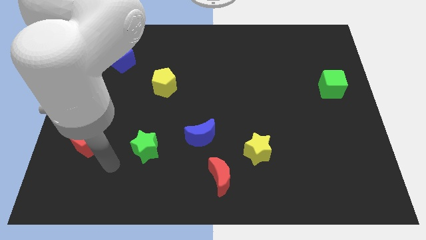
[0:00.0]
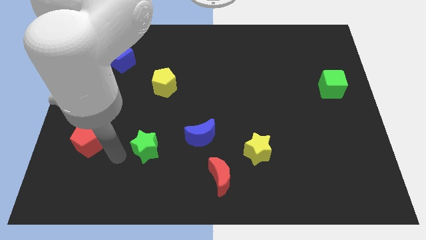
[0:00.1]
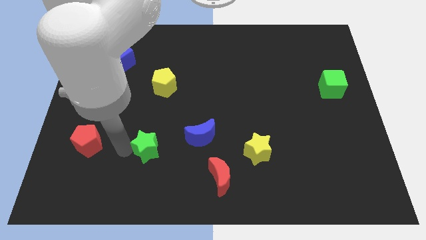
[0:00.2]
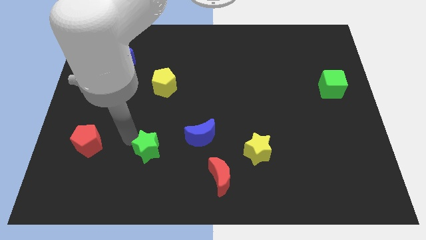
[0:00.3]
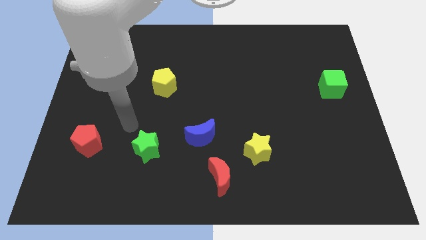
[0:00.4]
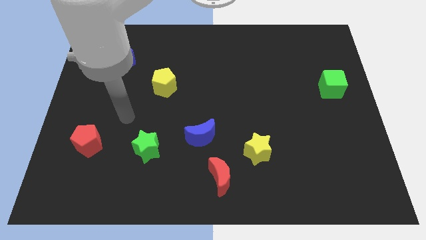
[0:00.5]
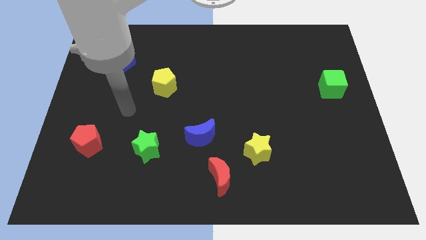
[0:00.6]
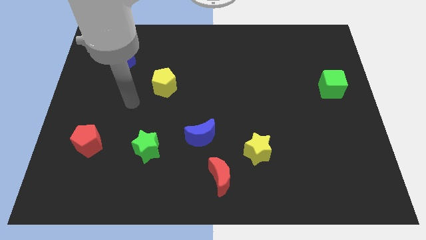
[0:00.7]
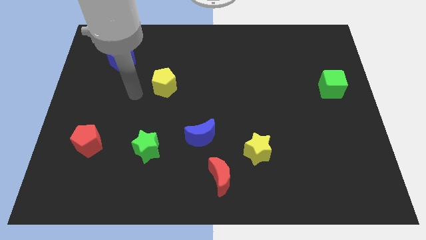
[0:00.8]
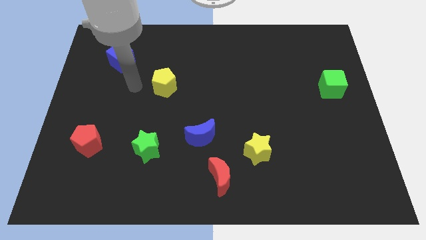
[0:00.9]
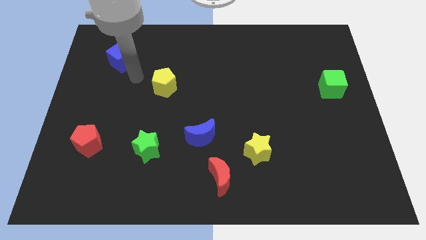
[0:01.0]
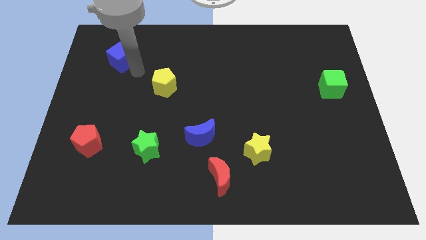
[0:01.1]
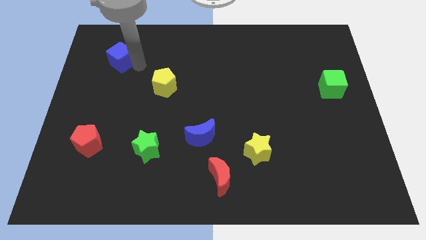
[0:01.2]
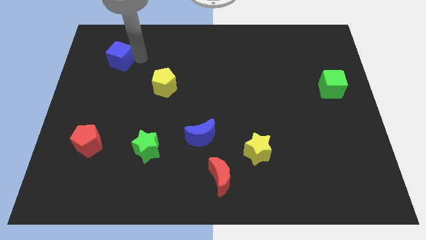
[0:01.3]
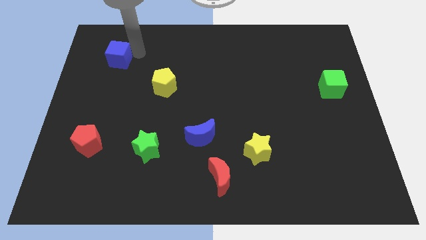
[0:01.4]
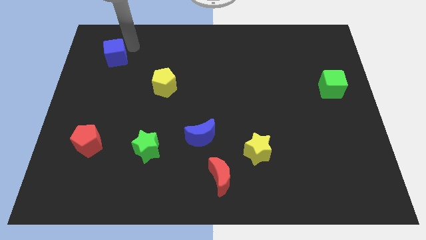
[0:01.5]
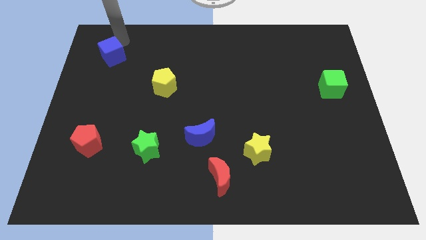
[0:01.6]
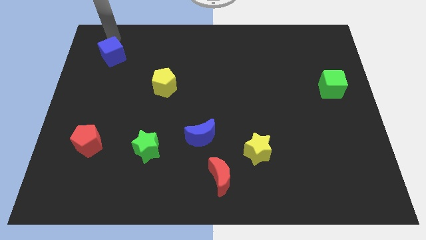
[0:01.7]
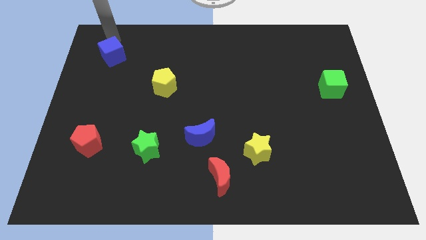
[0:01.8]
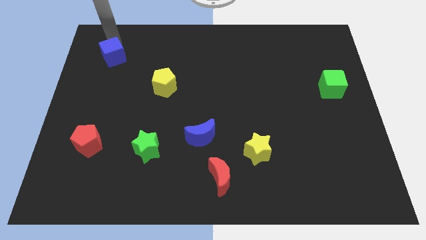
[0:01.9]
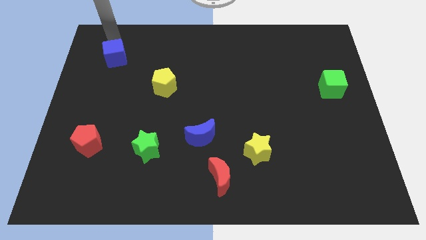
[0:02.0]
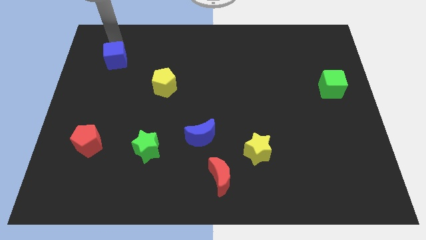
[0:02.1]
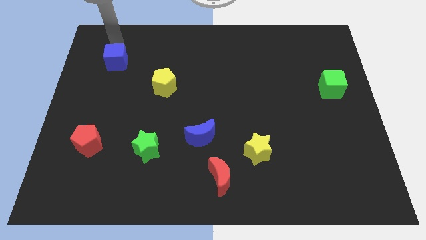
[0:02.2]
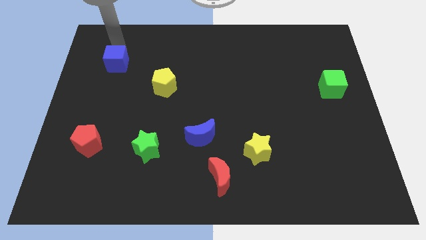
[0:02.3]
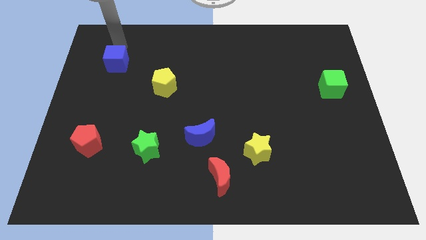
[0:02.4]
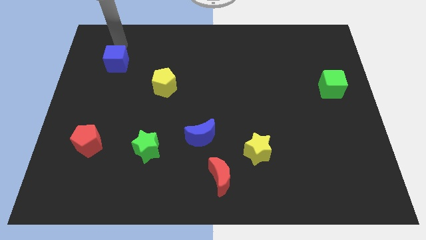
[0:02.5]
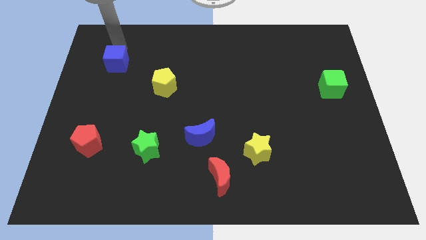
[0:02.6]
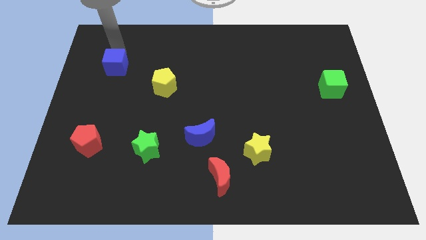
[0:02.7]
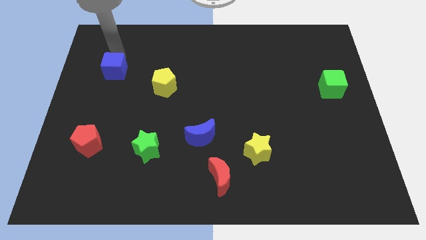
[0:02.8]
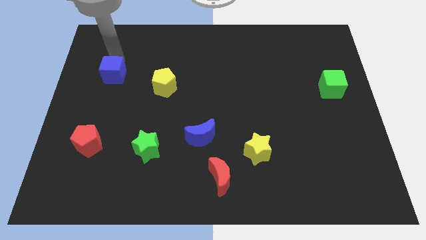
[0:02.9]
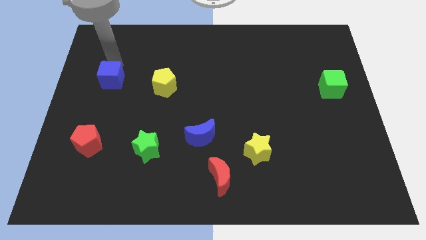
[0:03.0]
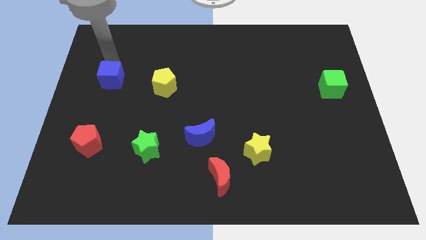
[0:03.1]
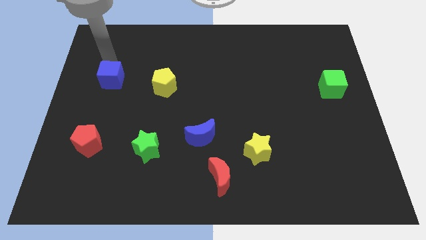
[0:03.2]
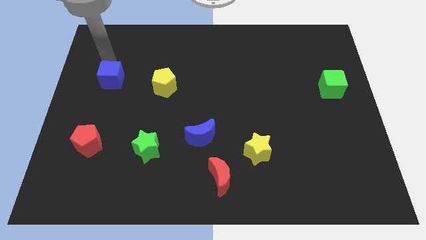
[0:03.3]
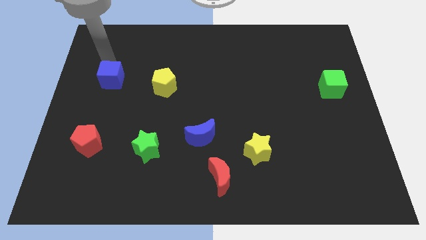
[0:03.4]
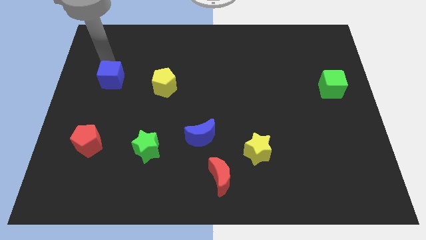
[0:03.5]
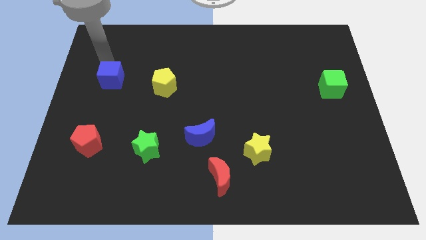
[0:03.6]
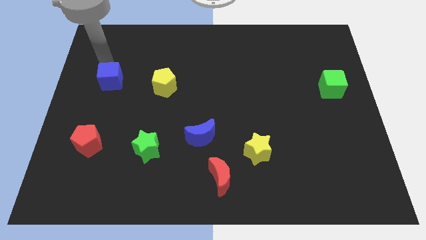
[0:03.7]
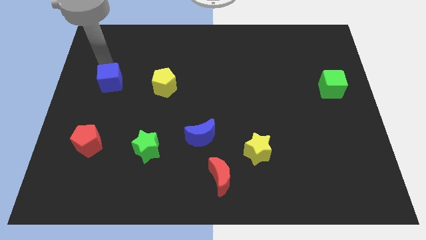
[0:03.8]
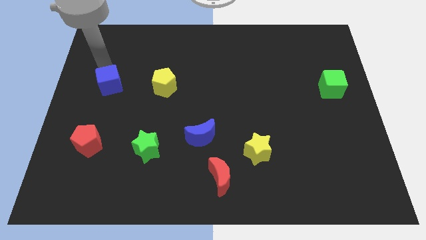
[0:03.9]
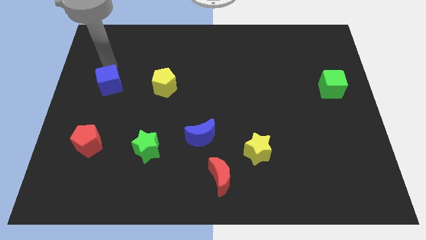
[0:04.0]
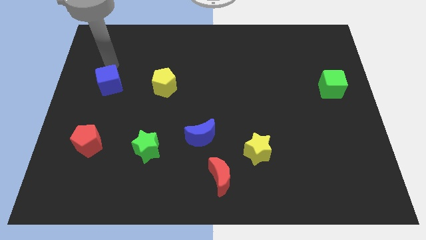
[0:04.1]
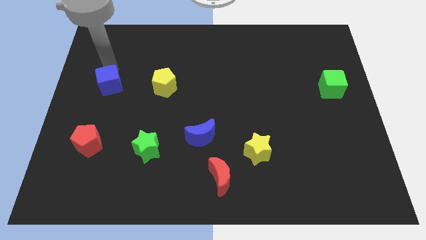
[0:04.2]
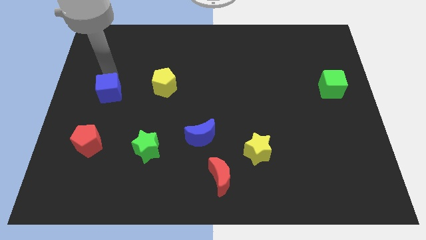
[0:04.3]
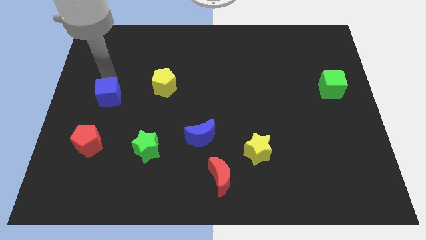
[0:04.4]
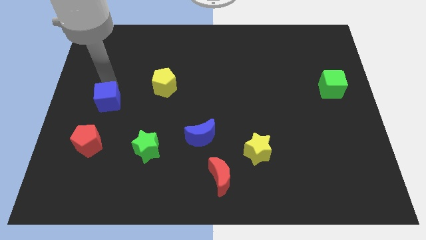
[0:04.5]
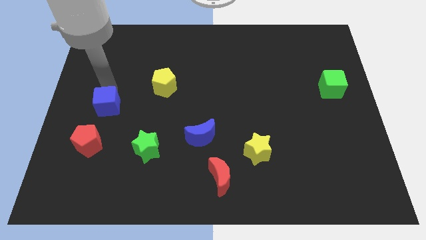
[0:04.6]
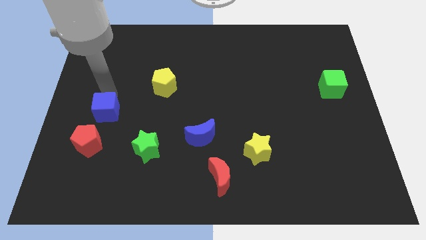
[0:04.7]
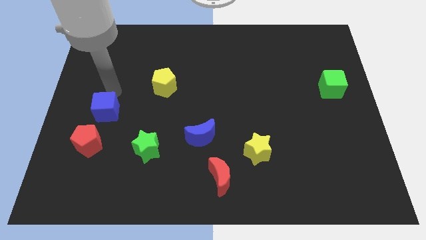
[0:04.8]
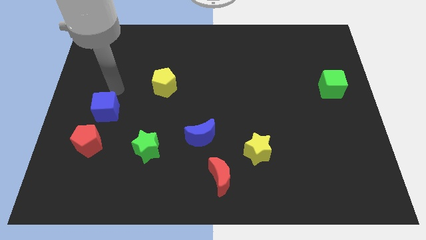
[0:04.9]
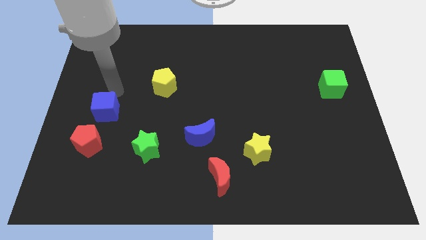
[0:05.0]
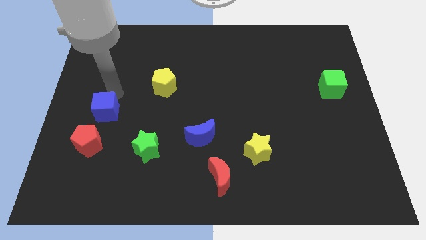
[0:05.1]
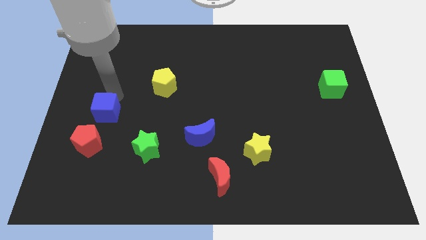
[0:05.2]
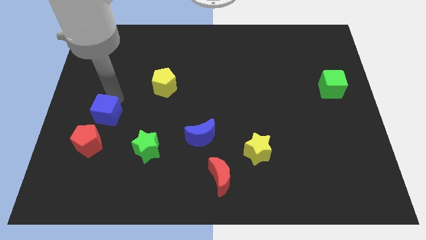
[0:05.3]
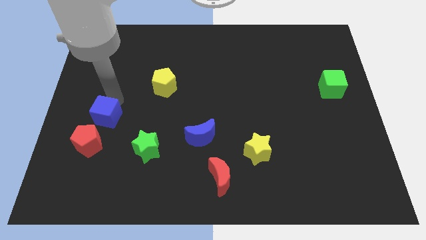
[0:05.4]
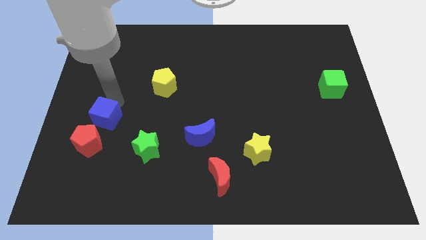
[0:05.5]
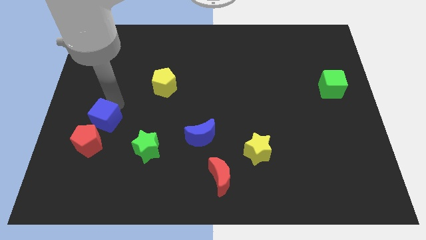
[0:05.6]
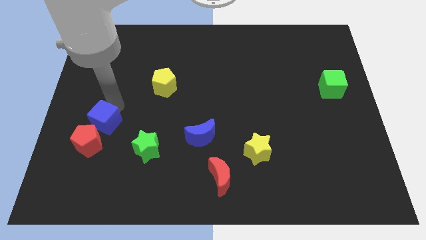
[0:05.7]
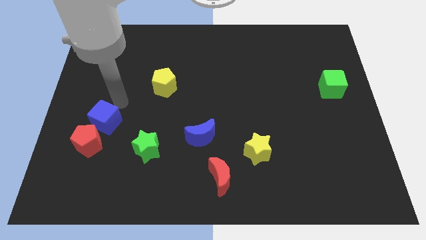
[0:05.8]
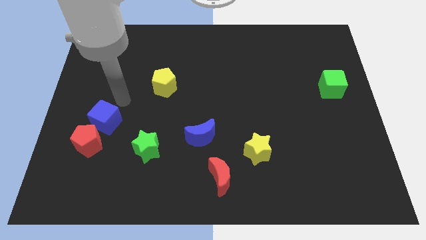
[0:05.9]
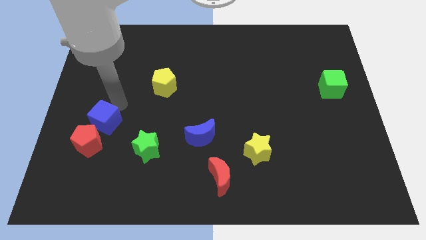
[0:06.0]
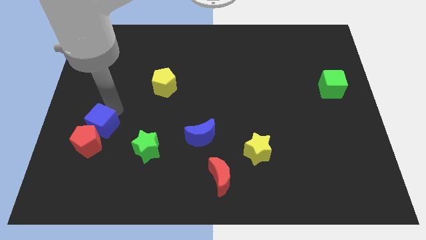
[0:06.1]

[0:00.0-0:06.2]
slide the blue cube to the red pentagon

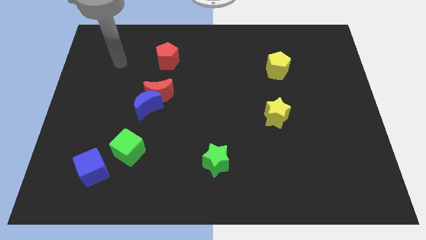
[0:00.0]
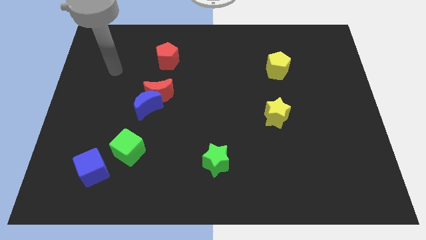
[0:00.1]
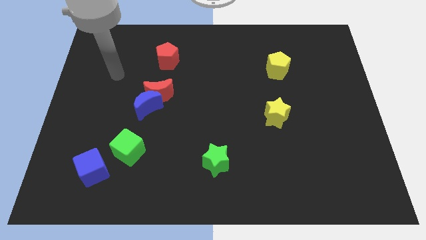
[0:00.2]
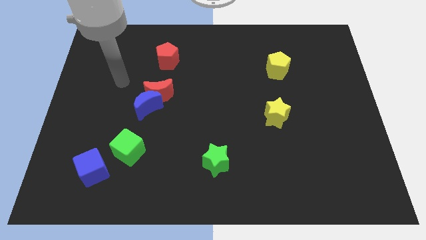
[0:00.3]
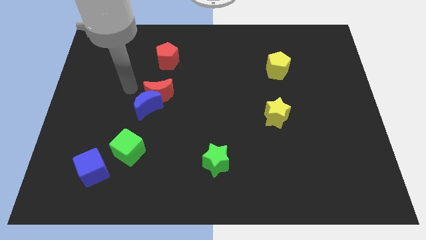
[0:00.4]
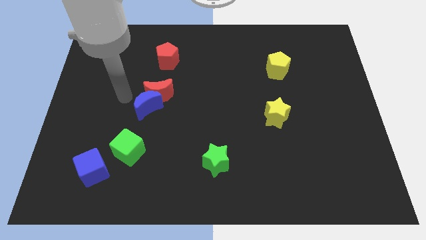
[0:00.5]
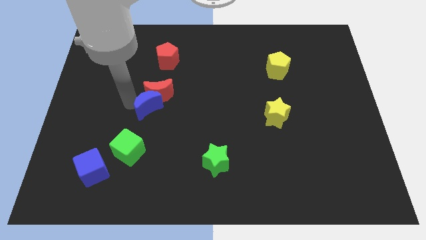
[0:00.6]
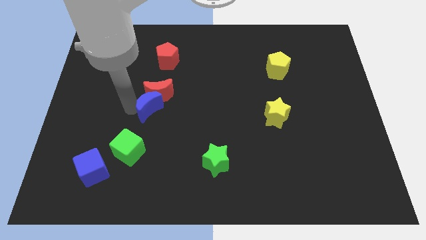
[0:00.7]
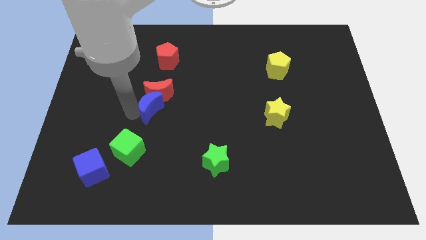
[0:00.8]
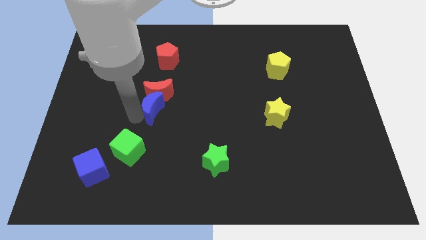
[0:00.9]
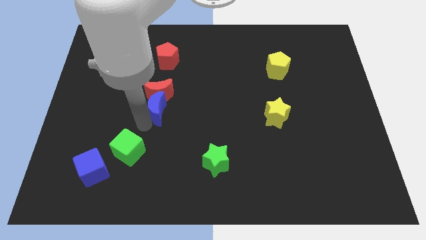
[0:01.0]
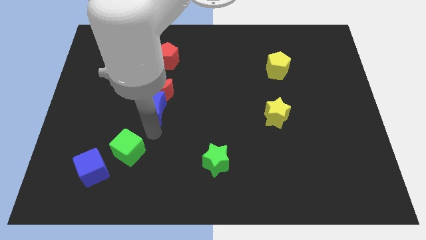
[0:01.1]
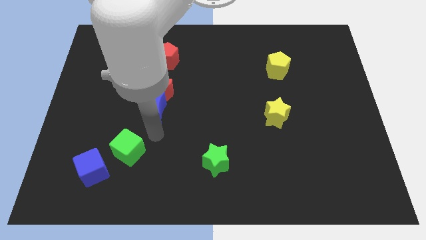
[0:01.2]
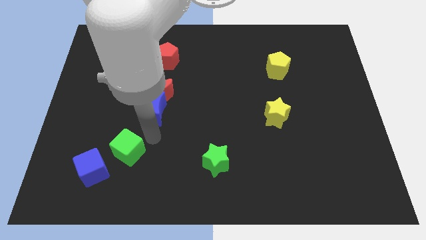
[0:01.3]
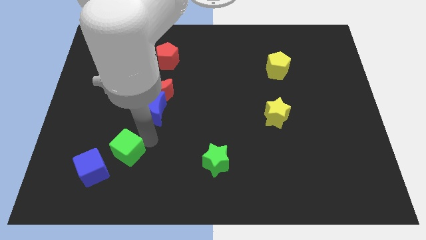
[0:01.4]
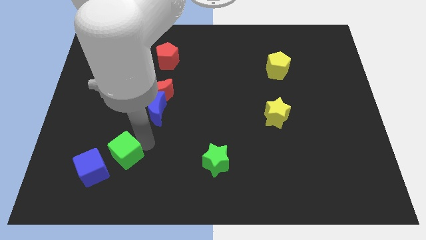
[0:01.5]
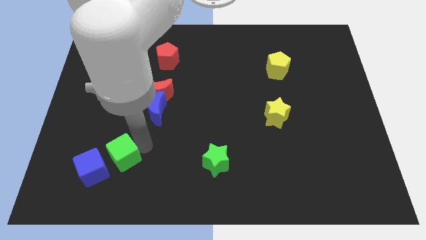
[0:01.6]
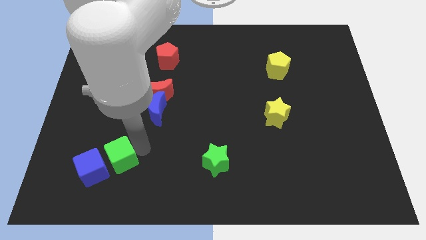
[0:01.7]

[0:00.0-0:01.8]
slide the green cube towards the blue cube
